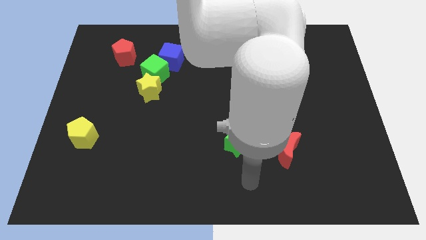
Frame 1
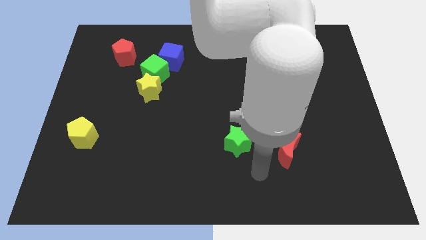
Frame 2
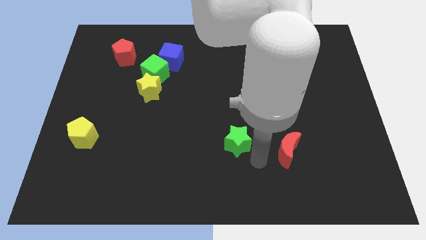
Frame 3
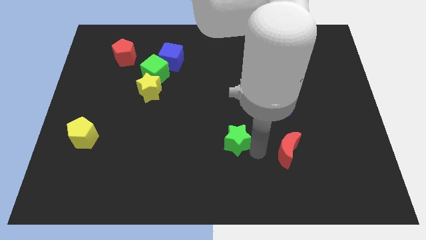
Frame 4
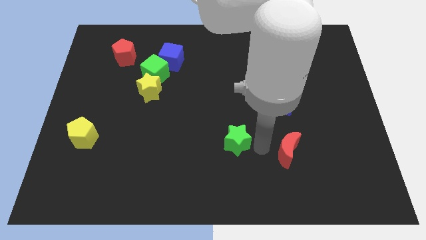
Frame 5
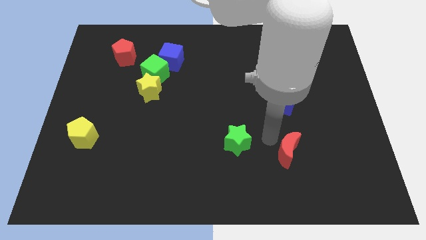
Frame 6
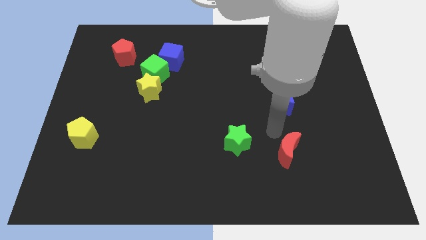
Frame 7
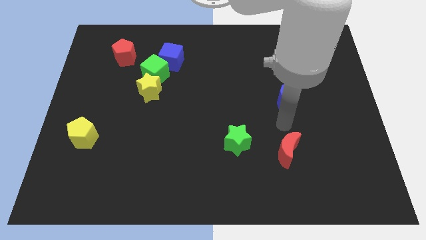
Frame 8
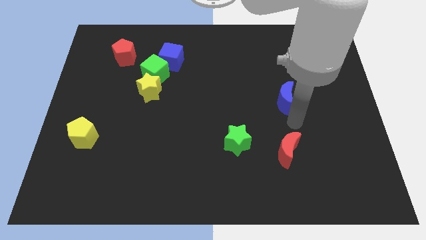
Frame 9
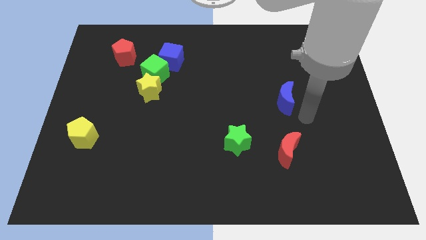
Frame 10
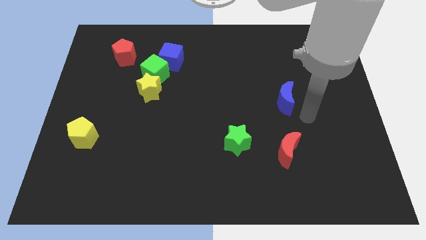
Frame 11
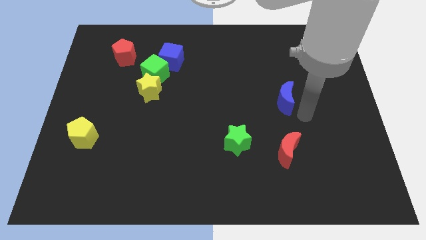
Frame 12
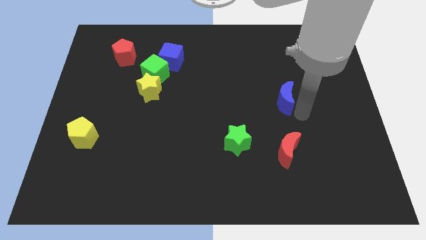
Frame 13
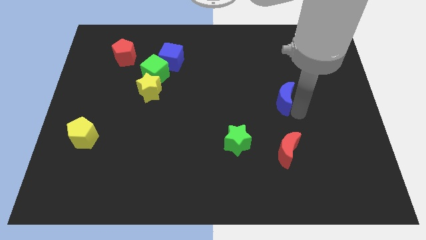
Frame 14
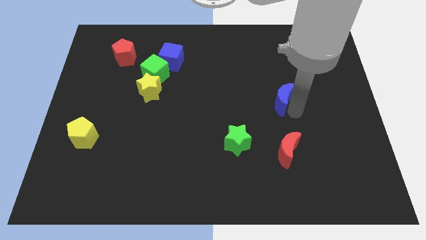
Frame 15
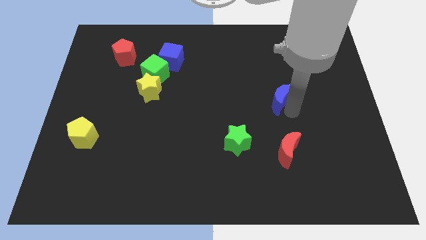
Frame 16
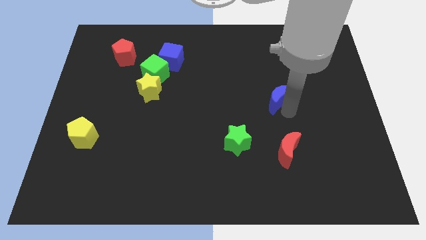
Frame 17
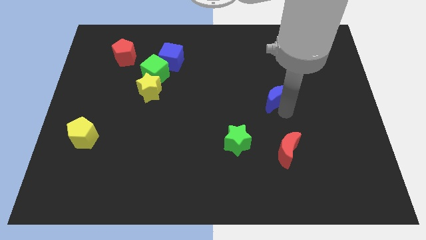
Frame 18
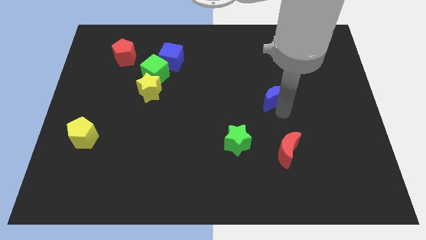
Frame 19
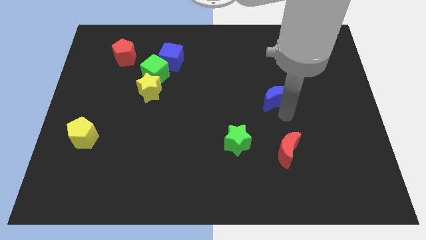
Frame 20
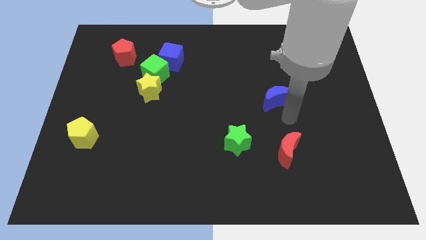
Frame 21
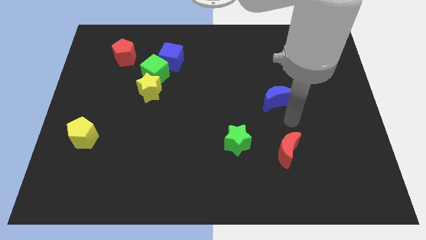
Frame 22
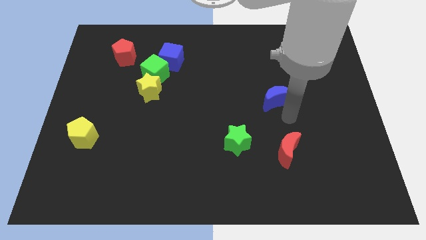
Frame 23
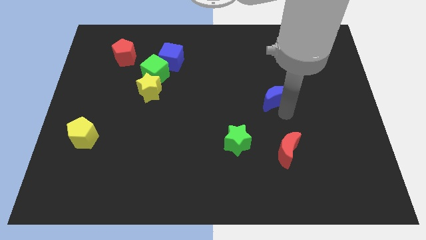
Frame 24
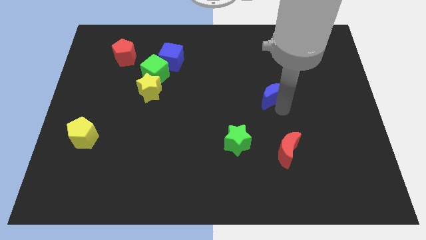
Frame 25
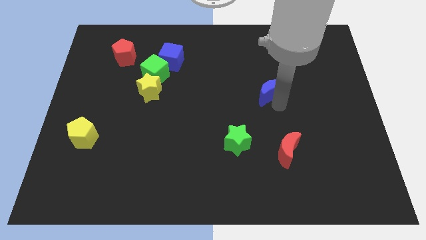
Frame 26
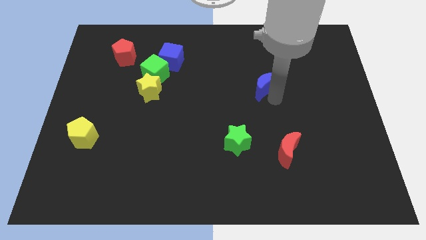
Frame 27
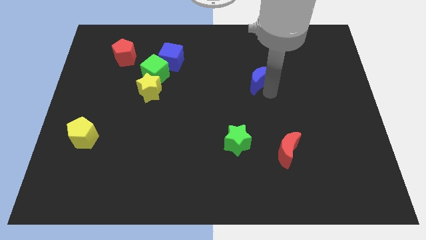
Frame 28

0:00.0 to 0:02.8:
push the blue moon a little up and to the left

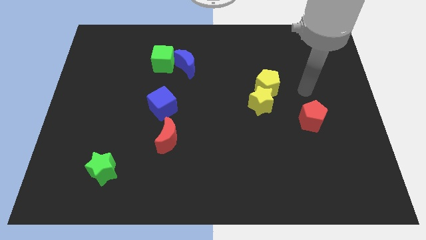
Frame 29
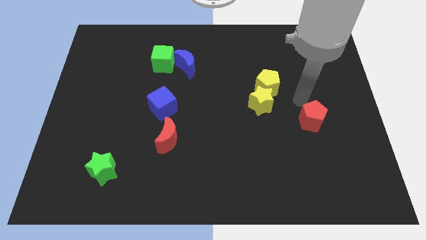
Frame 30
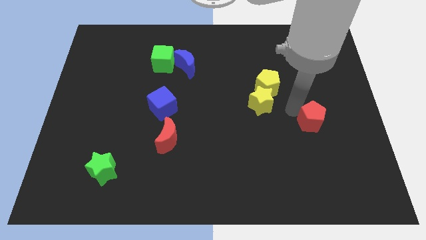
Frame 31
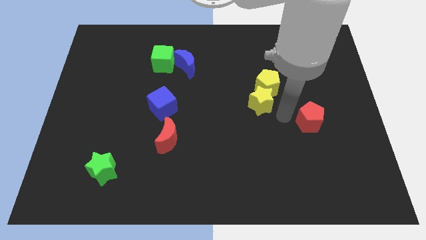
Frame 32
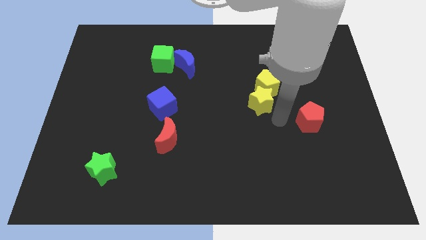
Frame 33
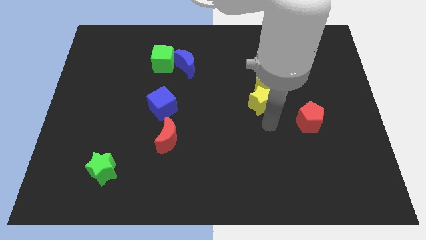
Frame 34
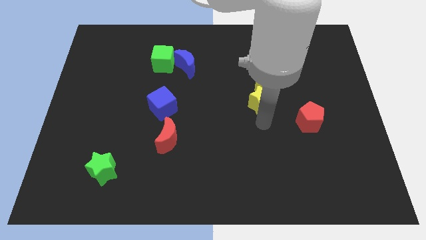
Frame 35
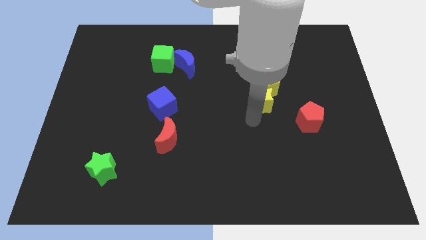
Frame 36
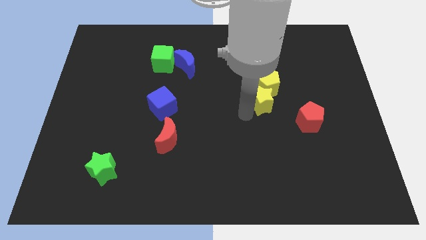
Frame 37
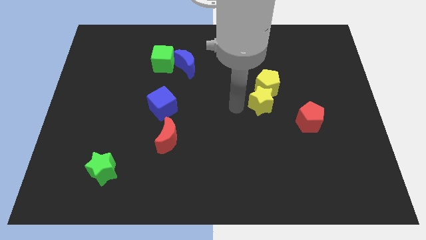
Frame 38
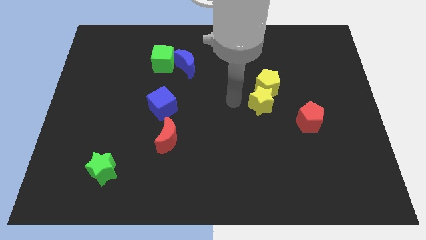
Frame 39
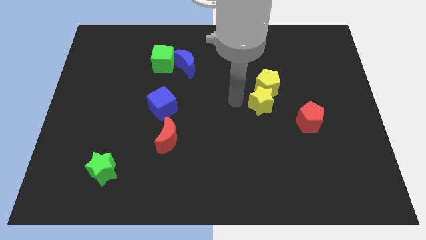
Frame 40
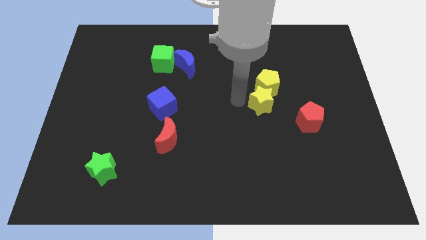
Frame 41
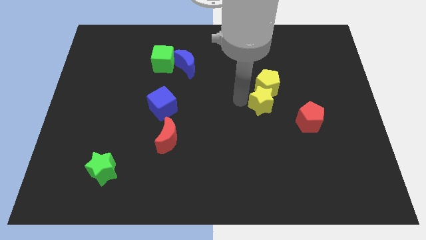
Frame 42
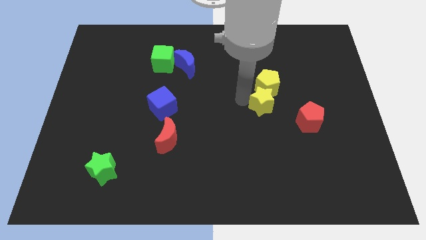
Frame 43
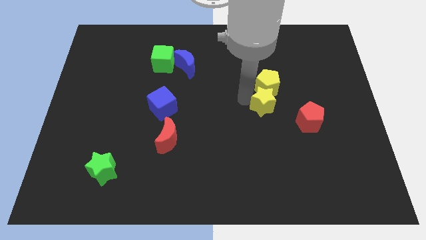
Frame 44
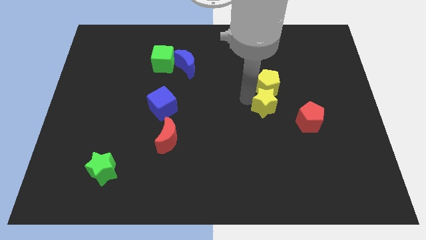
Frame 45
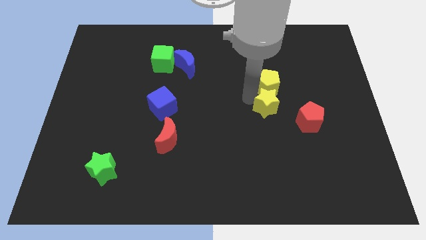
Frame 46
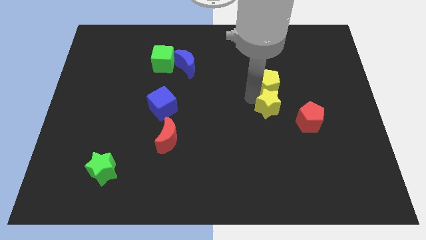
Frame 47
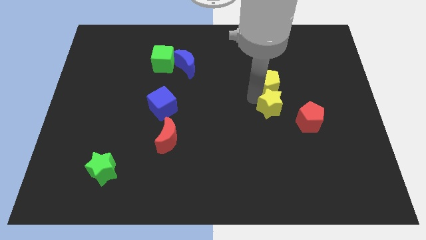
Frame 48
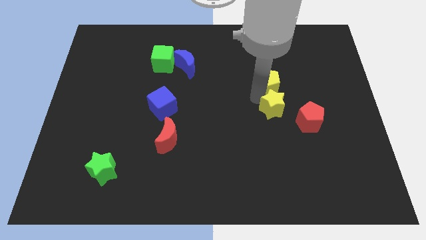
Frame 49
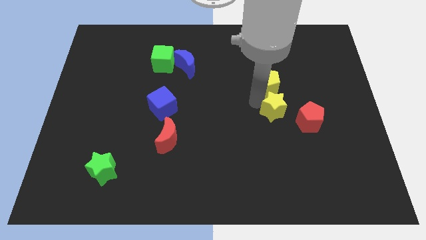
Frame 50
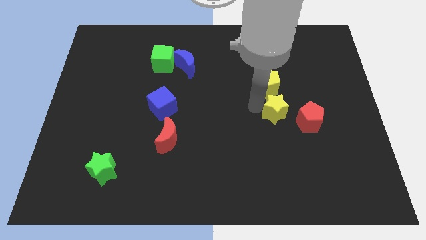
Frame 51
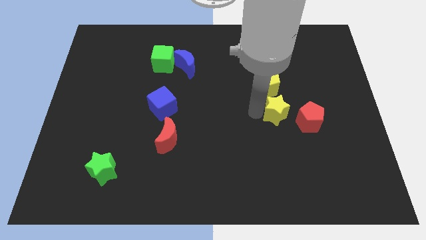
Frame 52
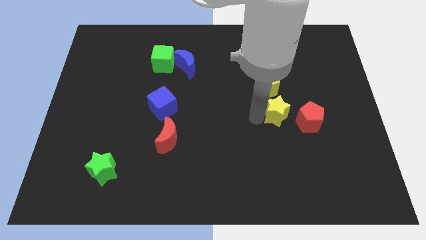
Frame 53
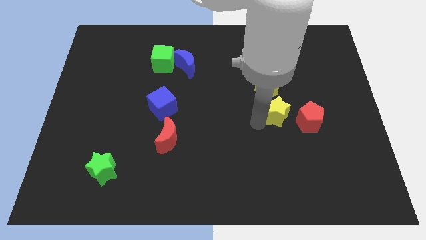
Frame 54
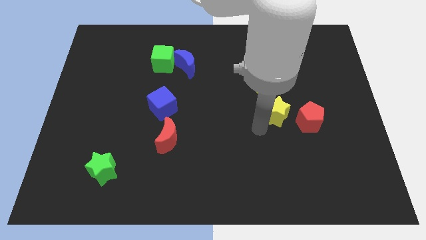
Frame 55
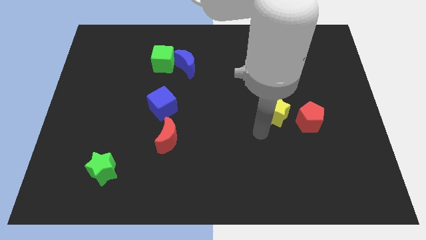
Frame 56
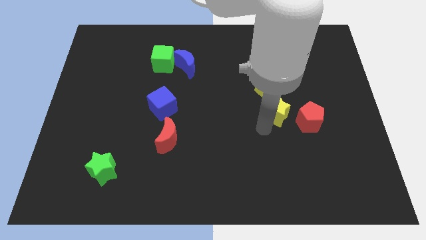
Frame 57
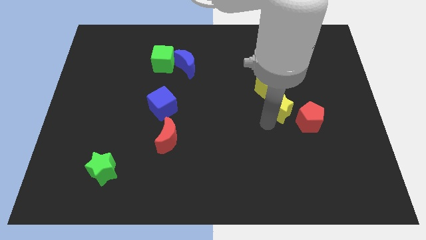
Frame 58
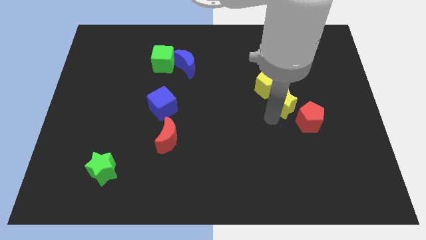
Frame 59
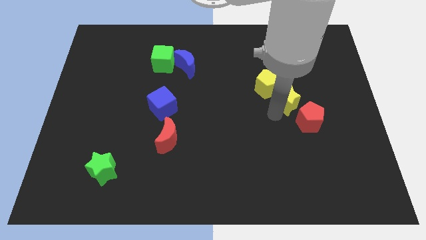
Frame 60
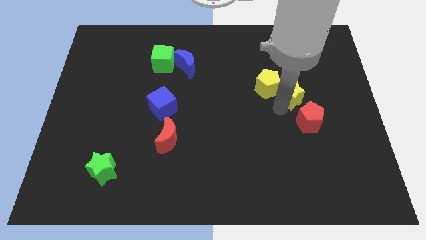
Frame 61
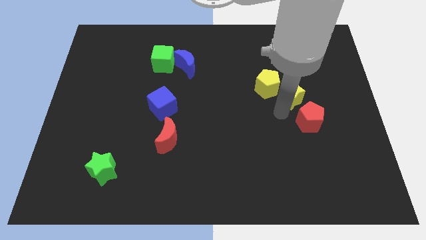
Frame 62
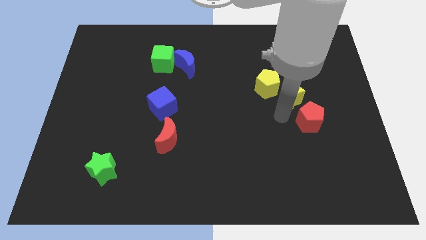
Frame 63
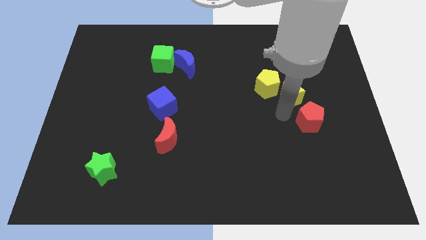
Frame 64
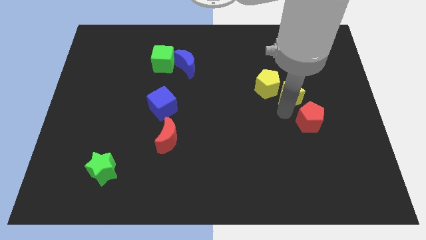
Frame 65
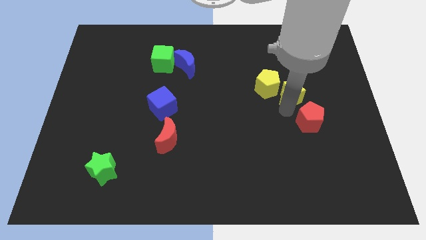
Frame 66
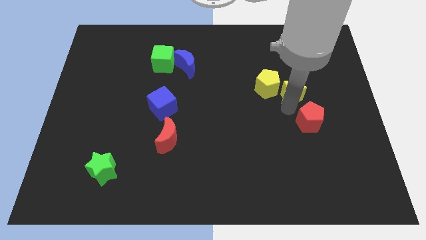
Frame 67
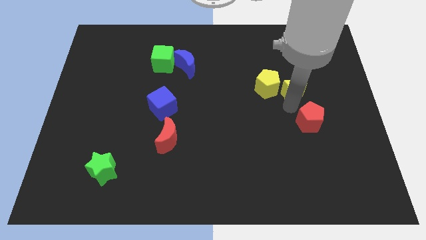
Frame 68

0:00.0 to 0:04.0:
push the yellow star a little up and then right

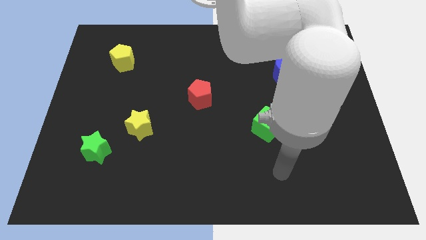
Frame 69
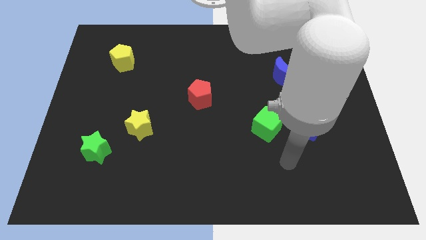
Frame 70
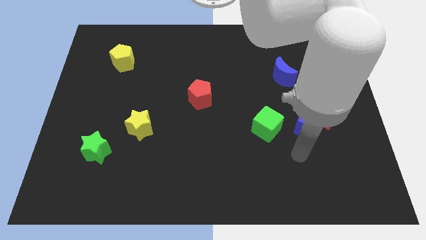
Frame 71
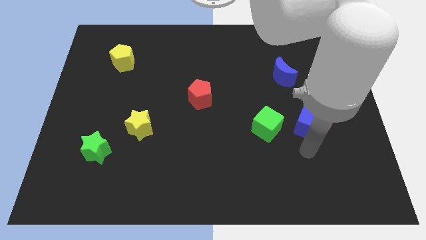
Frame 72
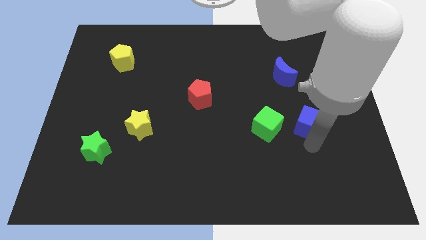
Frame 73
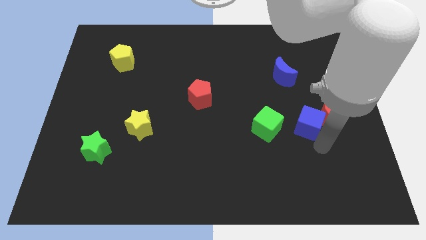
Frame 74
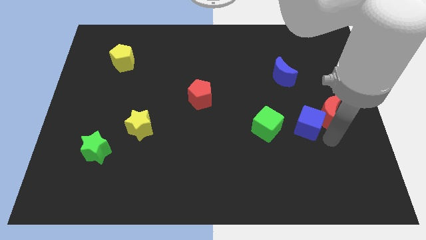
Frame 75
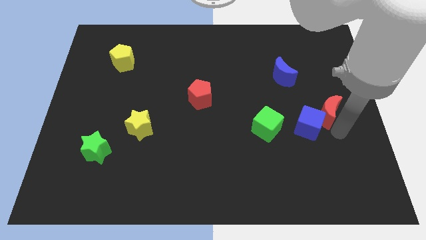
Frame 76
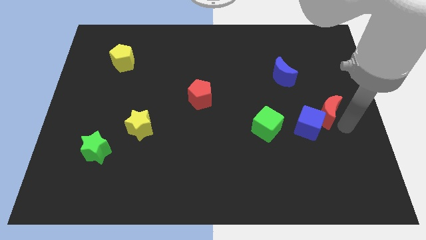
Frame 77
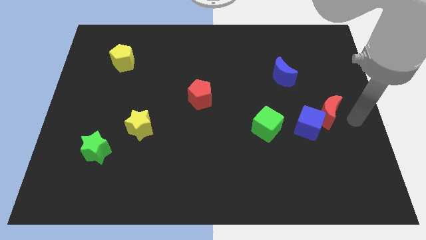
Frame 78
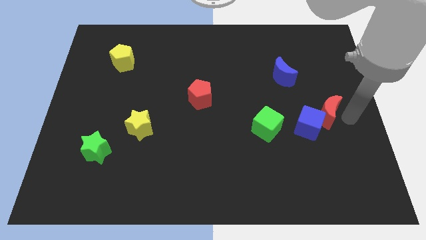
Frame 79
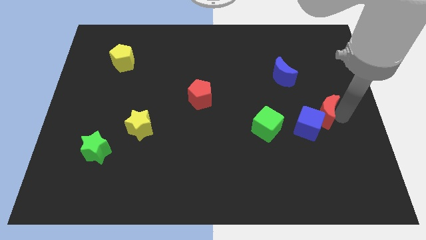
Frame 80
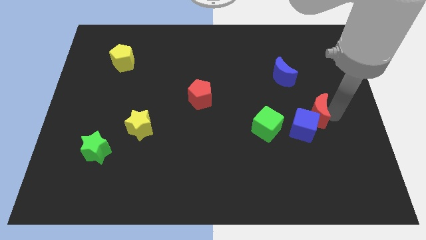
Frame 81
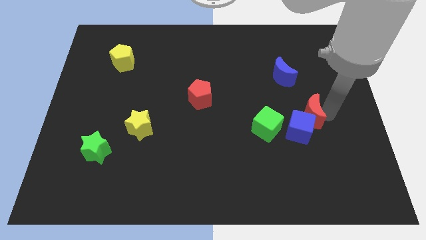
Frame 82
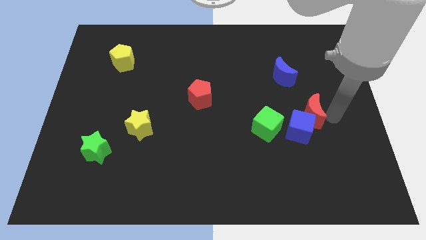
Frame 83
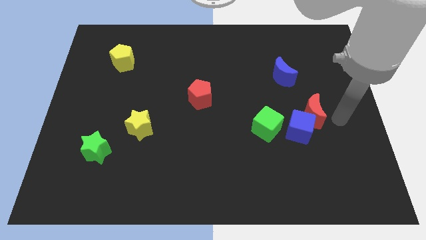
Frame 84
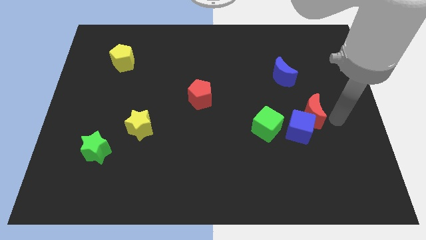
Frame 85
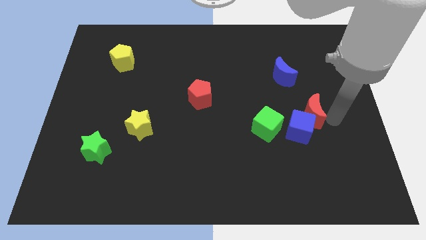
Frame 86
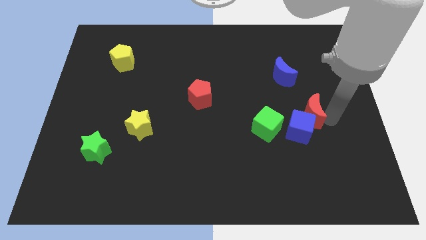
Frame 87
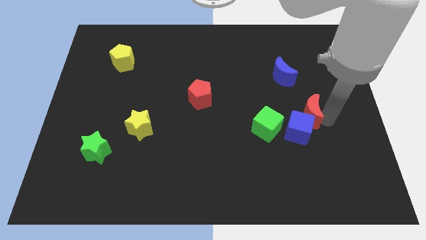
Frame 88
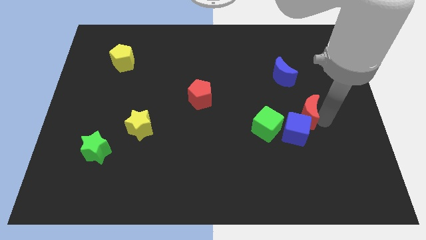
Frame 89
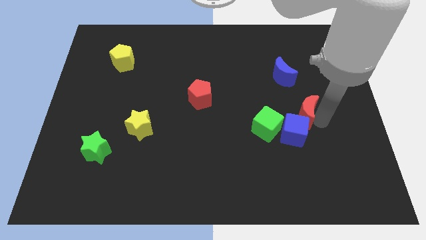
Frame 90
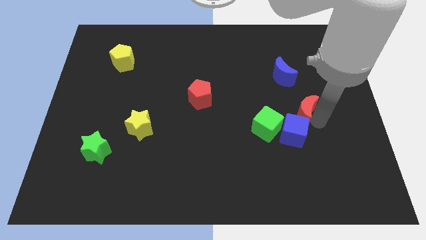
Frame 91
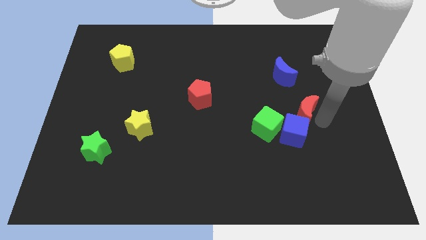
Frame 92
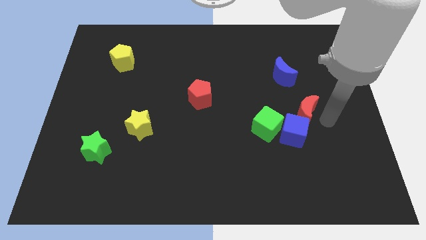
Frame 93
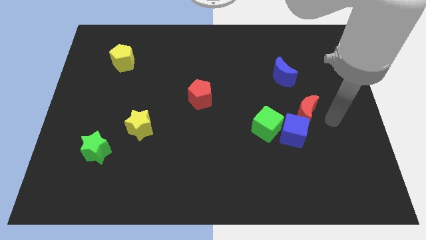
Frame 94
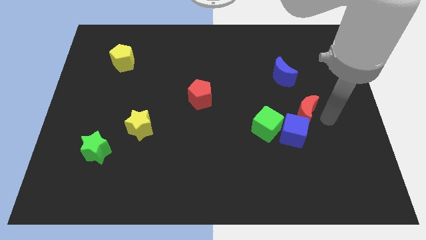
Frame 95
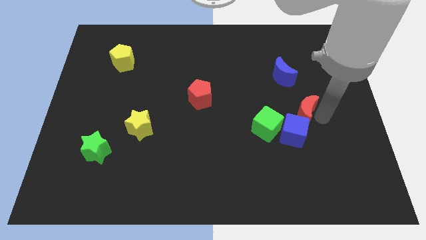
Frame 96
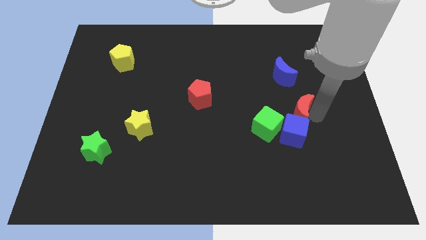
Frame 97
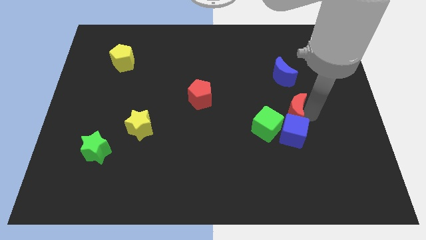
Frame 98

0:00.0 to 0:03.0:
push the red moon somewhat to the left
